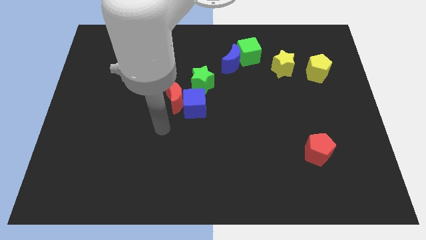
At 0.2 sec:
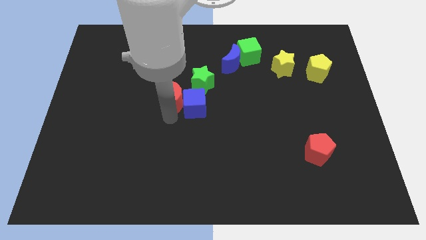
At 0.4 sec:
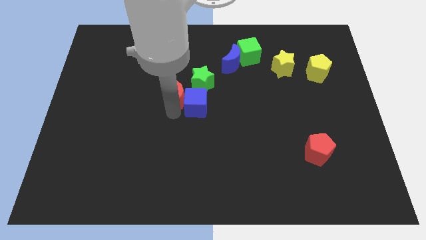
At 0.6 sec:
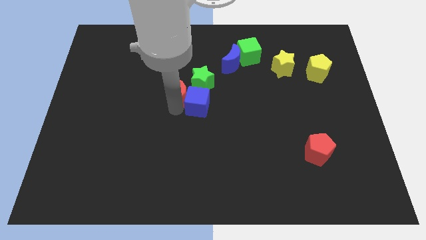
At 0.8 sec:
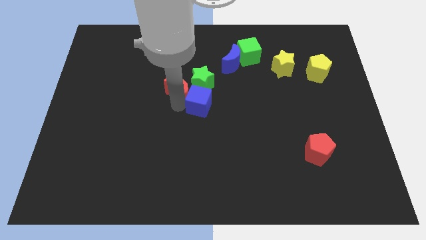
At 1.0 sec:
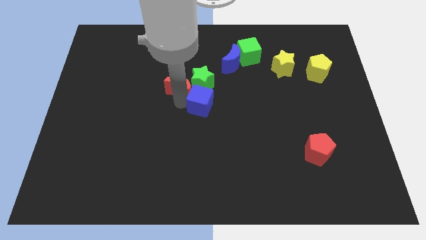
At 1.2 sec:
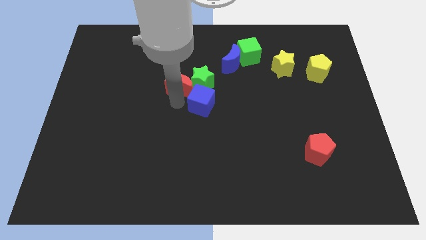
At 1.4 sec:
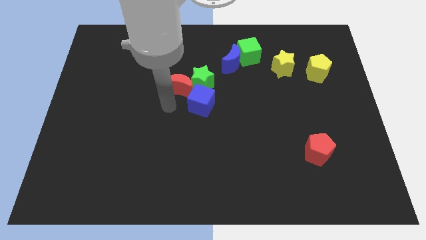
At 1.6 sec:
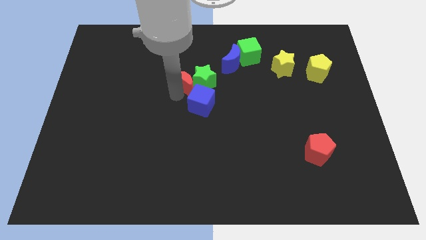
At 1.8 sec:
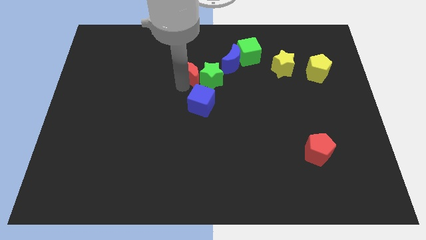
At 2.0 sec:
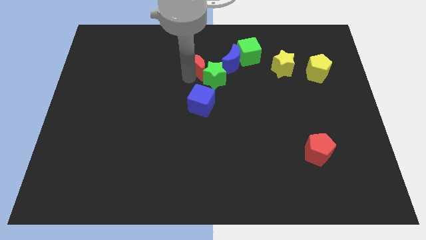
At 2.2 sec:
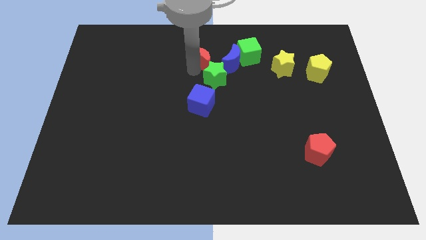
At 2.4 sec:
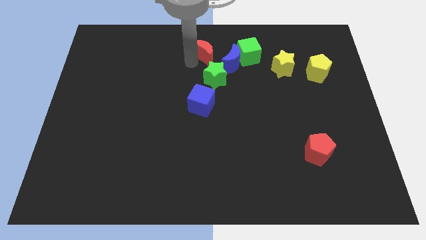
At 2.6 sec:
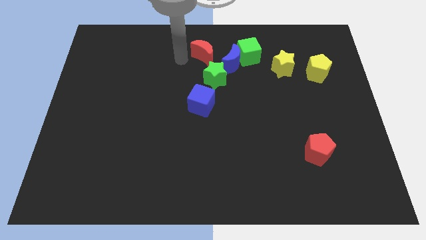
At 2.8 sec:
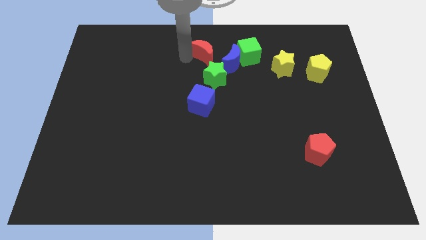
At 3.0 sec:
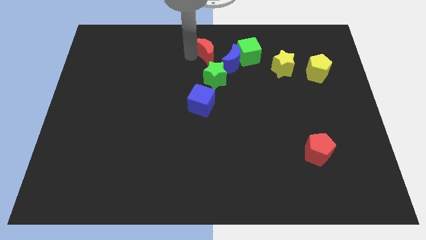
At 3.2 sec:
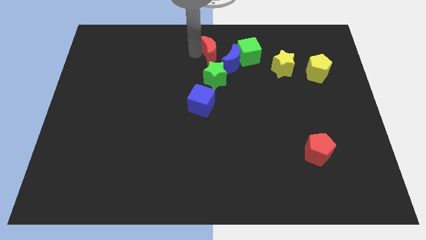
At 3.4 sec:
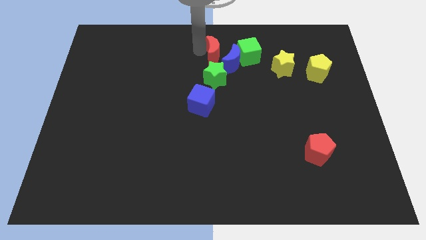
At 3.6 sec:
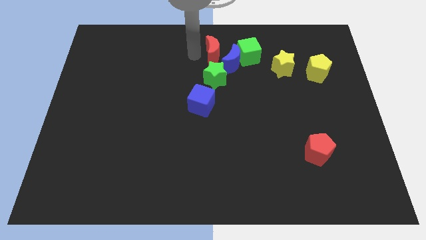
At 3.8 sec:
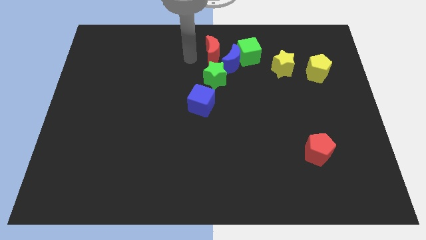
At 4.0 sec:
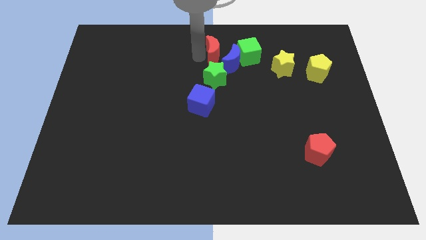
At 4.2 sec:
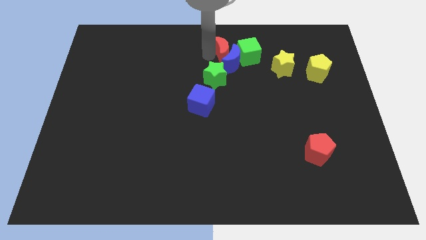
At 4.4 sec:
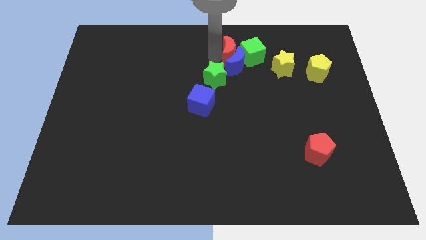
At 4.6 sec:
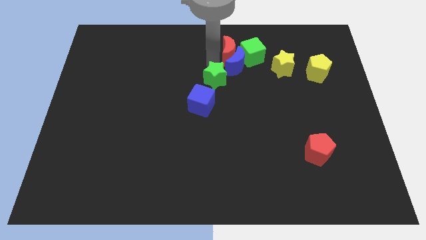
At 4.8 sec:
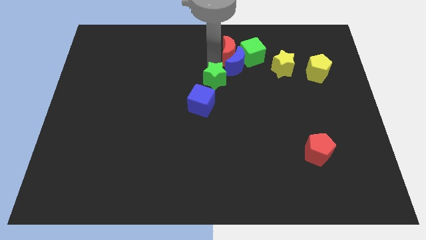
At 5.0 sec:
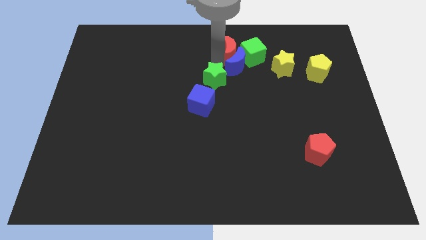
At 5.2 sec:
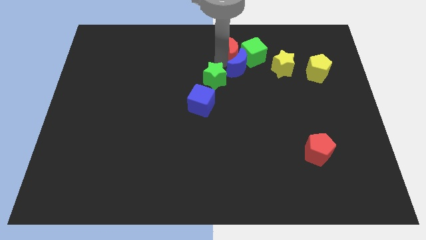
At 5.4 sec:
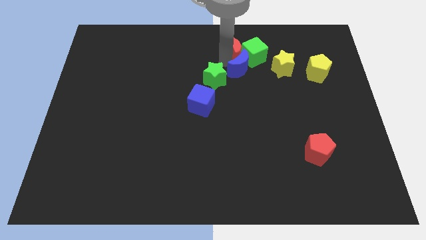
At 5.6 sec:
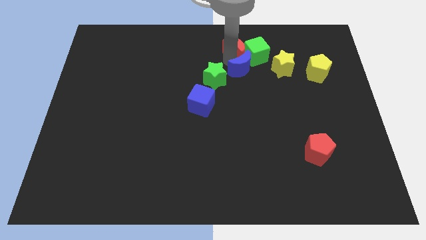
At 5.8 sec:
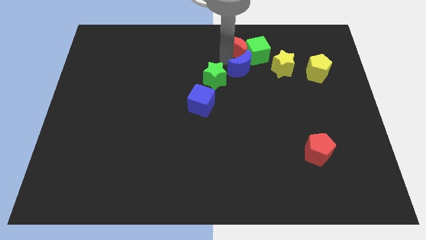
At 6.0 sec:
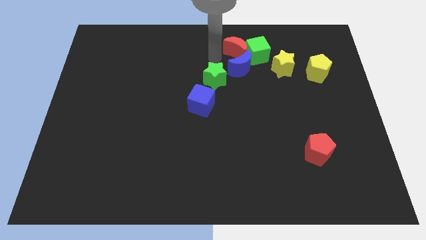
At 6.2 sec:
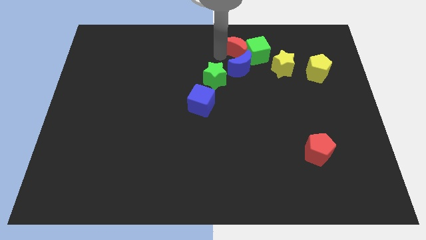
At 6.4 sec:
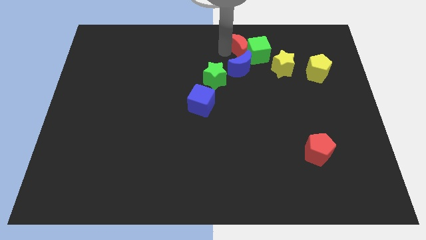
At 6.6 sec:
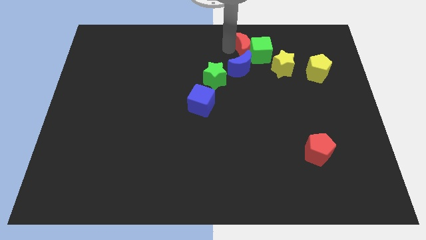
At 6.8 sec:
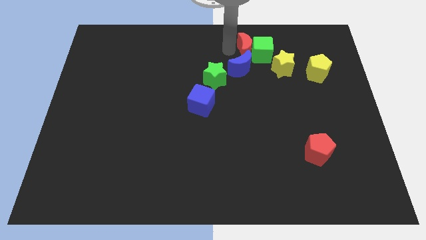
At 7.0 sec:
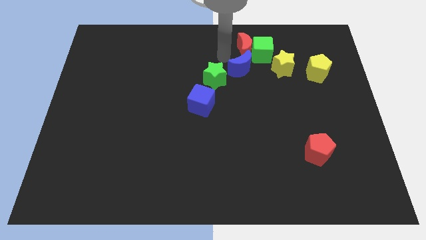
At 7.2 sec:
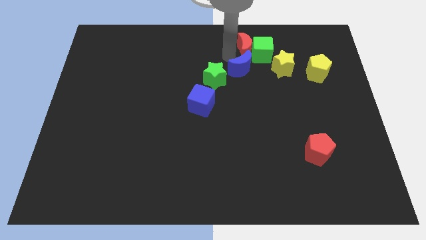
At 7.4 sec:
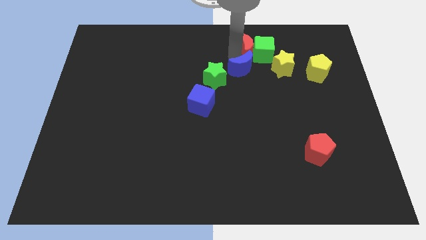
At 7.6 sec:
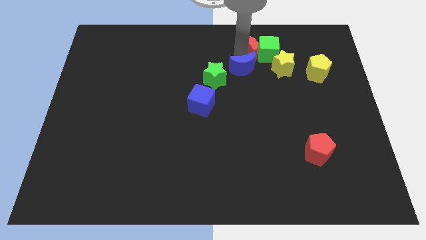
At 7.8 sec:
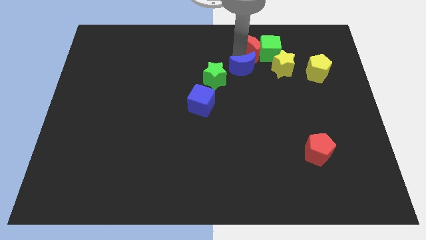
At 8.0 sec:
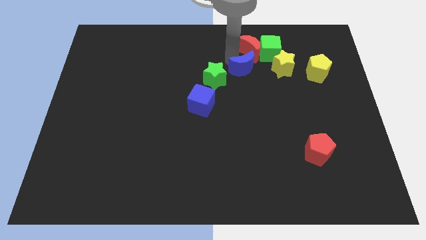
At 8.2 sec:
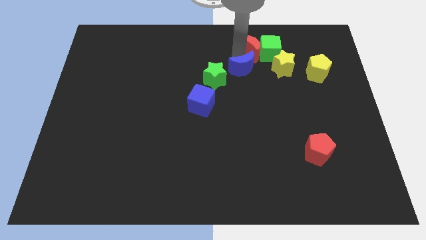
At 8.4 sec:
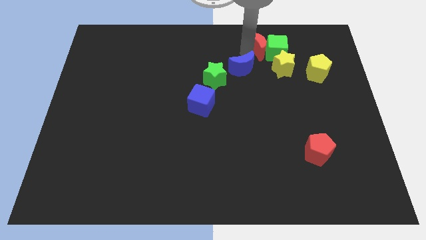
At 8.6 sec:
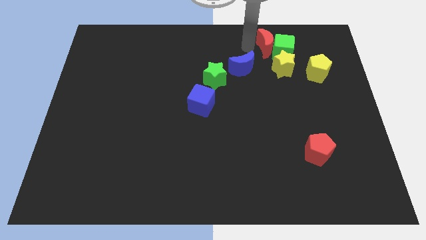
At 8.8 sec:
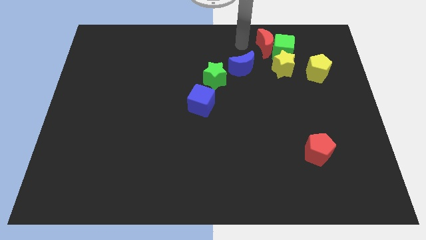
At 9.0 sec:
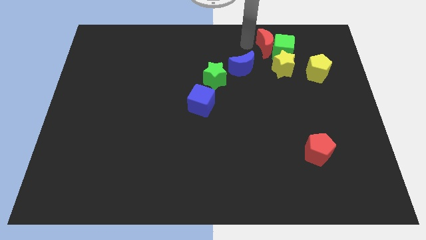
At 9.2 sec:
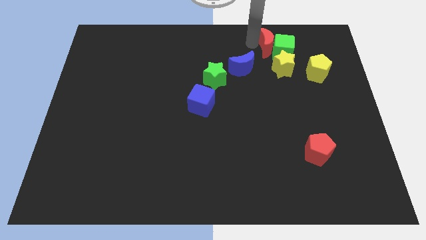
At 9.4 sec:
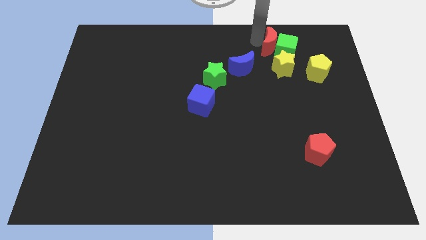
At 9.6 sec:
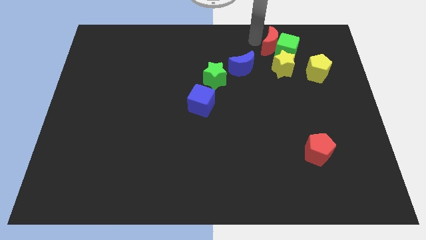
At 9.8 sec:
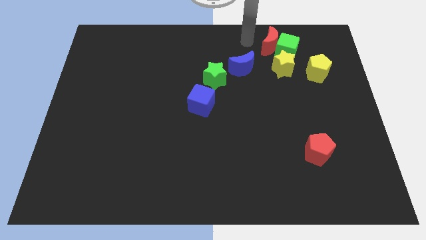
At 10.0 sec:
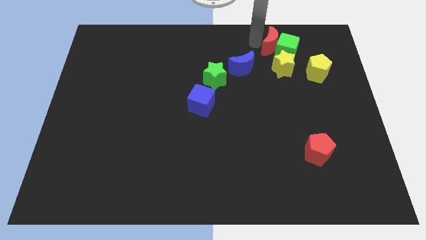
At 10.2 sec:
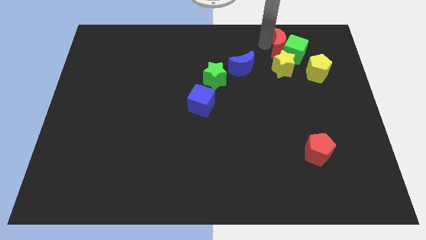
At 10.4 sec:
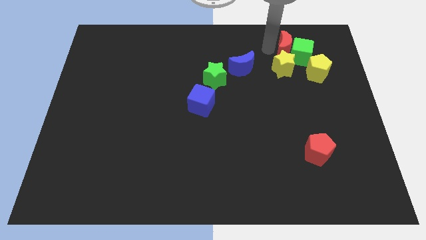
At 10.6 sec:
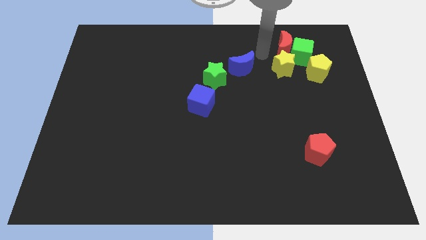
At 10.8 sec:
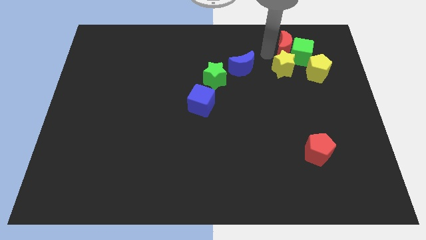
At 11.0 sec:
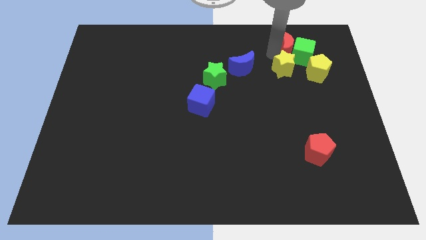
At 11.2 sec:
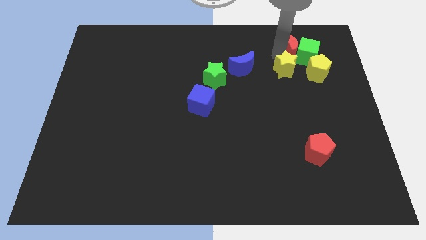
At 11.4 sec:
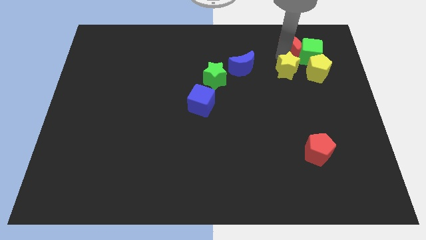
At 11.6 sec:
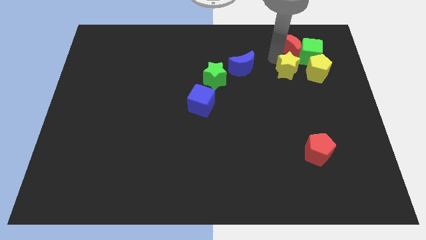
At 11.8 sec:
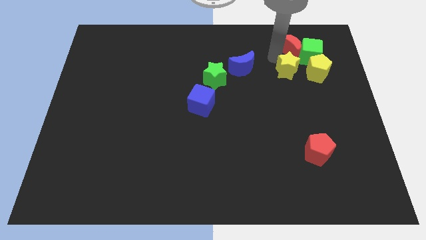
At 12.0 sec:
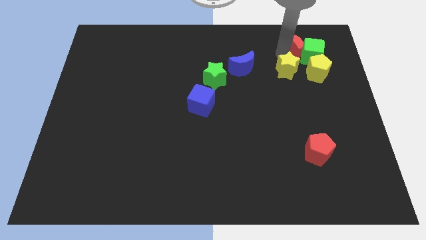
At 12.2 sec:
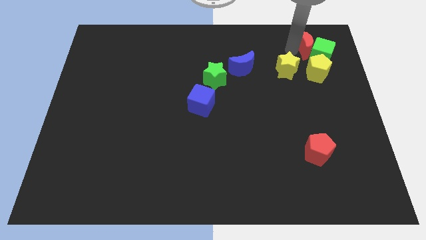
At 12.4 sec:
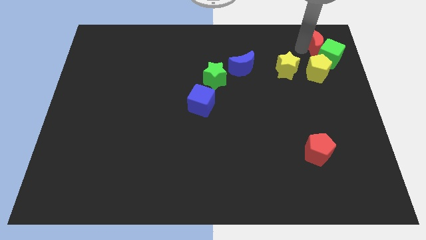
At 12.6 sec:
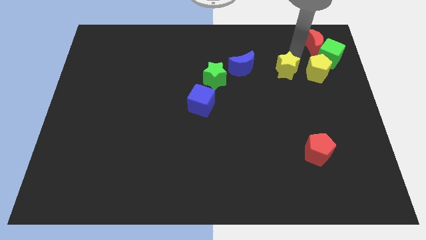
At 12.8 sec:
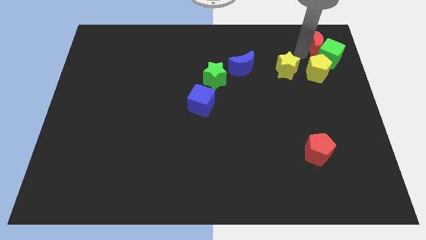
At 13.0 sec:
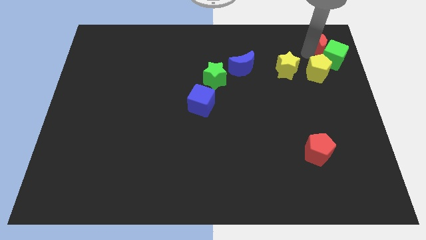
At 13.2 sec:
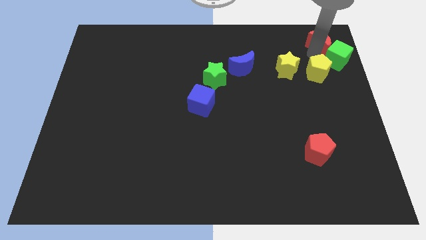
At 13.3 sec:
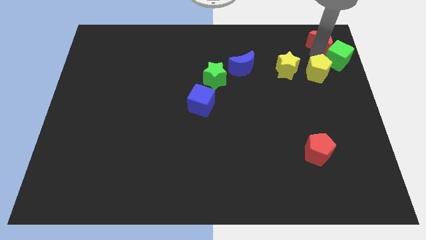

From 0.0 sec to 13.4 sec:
move the red moon to the top right corner
